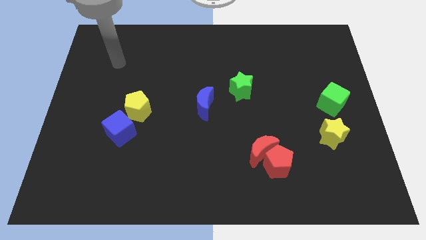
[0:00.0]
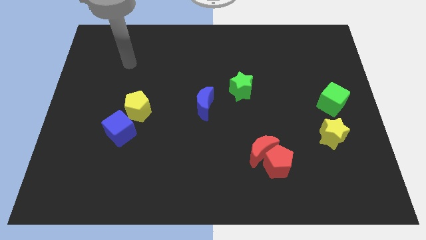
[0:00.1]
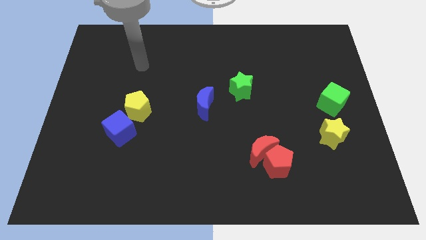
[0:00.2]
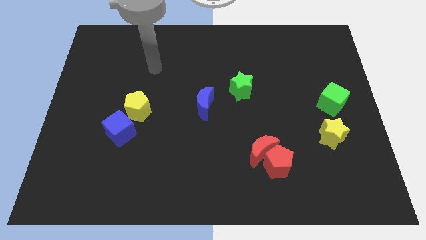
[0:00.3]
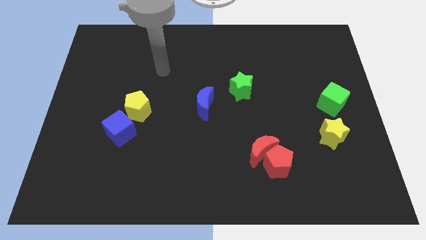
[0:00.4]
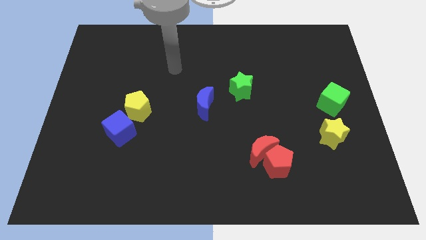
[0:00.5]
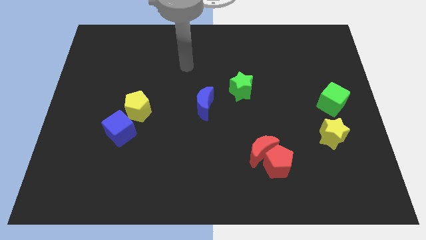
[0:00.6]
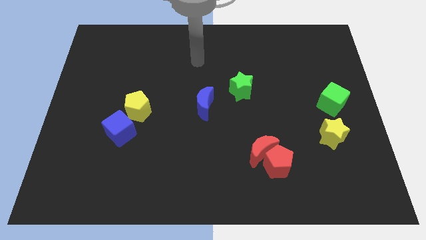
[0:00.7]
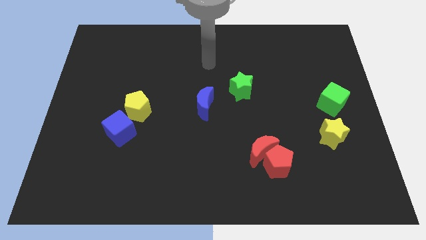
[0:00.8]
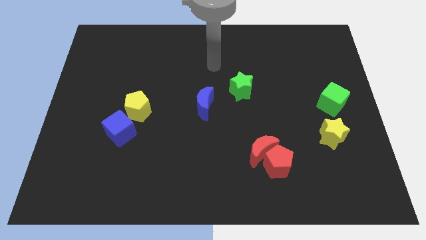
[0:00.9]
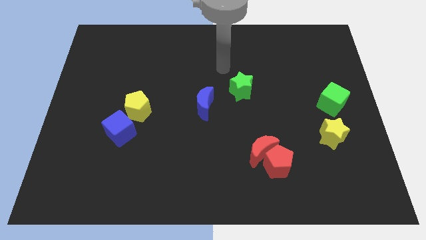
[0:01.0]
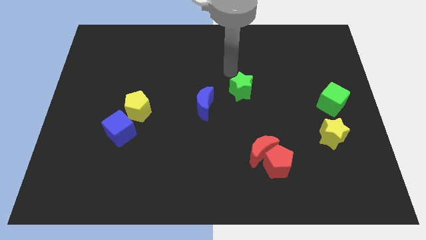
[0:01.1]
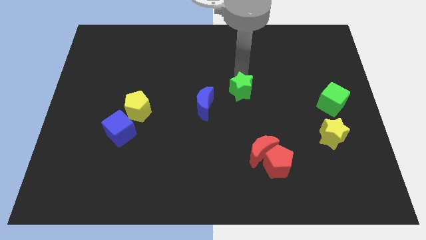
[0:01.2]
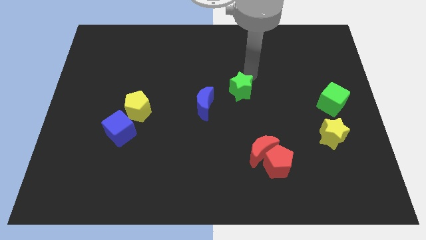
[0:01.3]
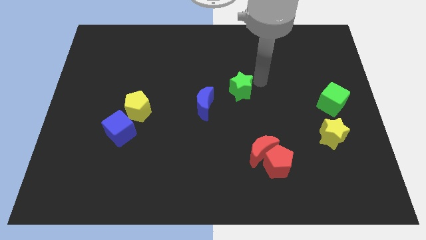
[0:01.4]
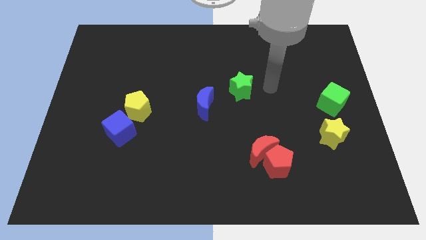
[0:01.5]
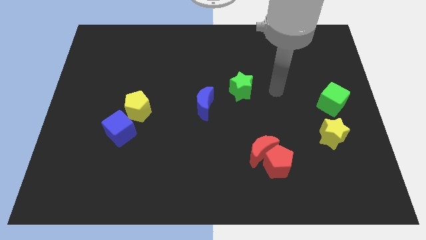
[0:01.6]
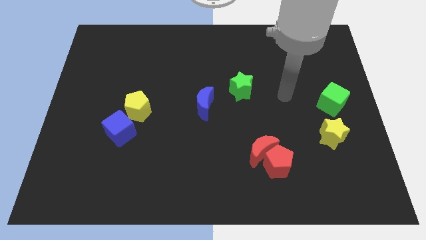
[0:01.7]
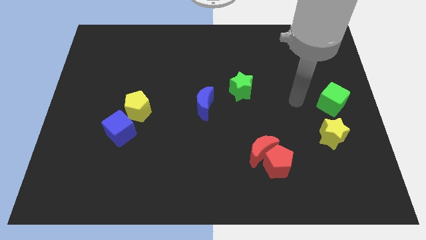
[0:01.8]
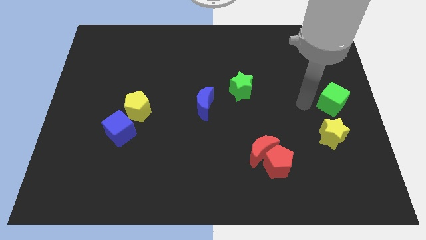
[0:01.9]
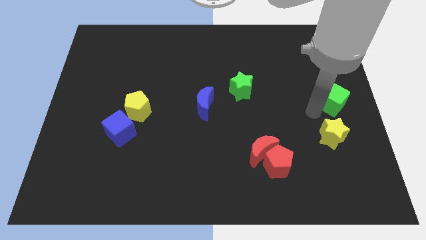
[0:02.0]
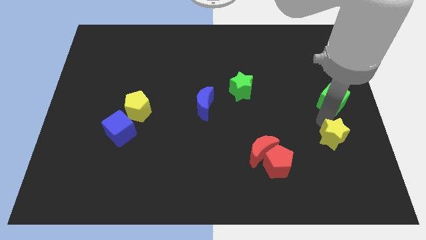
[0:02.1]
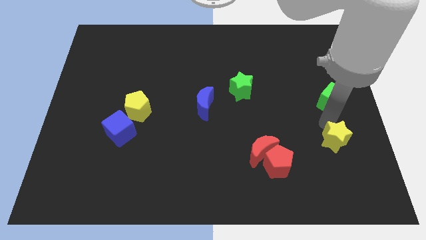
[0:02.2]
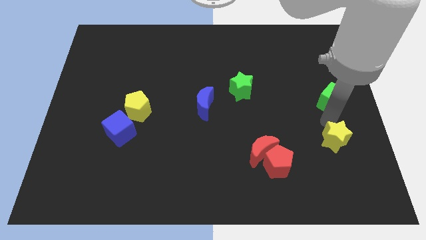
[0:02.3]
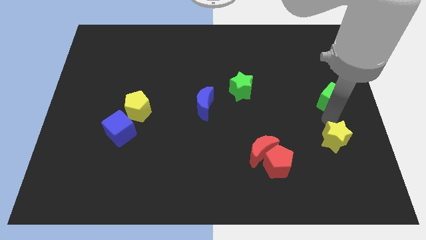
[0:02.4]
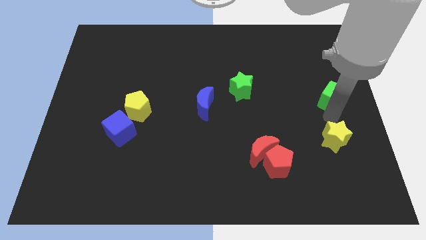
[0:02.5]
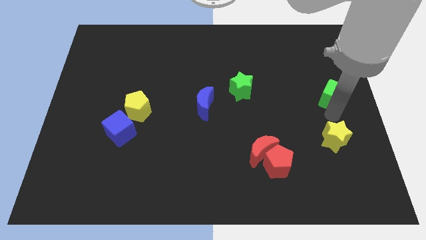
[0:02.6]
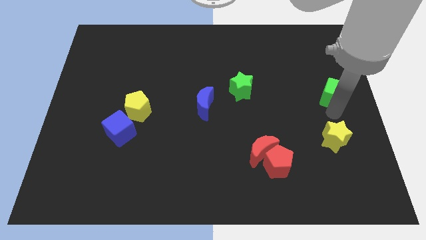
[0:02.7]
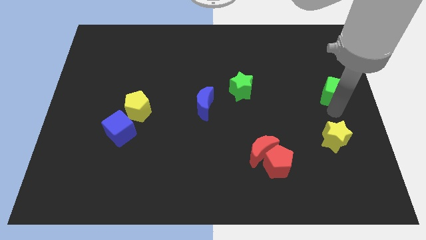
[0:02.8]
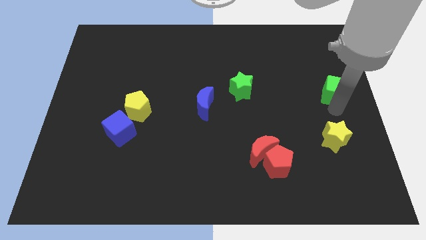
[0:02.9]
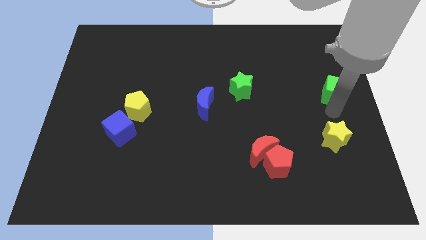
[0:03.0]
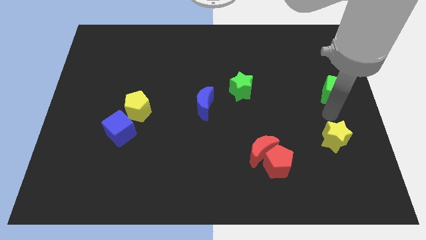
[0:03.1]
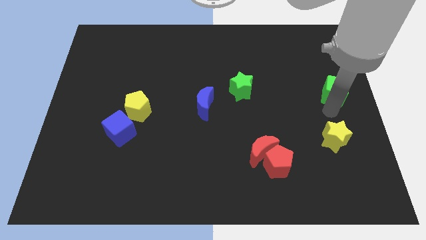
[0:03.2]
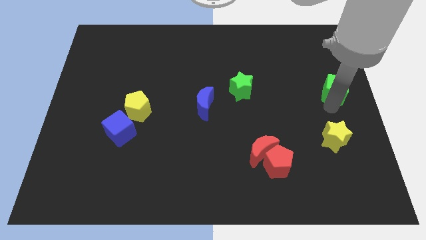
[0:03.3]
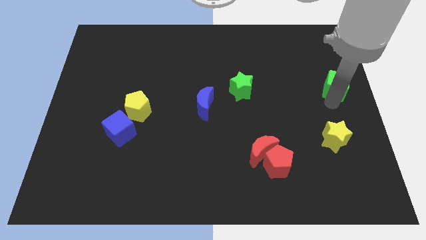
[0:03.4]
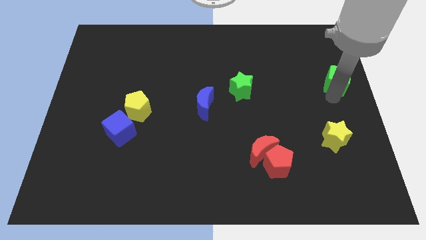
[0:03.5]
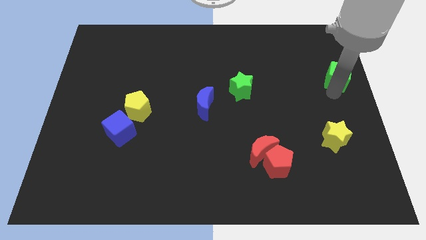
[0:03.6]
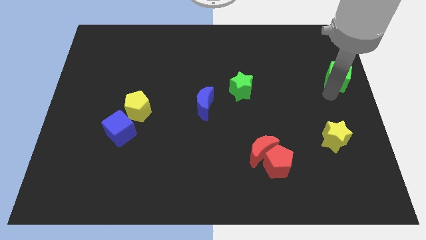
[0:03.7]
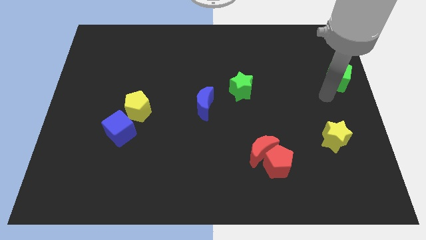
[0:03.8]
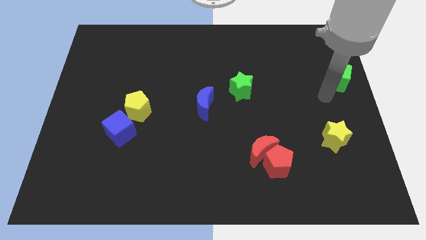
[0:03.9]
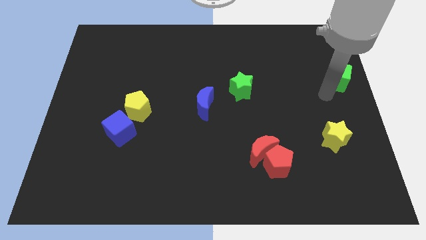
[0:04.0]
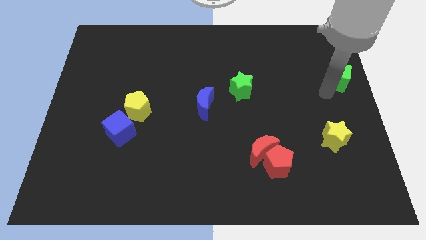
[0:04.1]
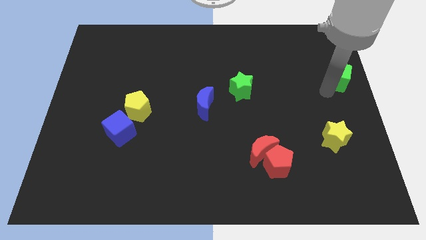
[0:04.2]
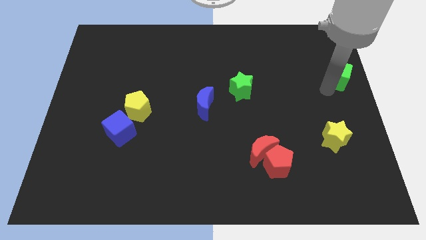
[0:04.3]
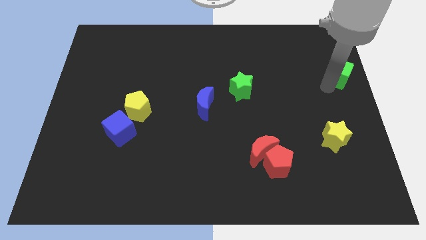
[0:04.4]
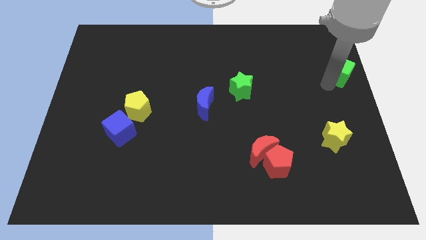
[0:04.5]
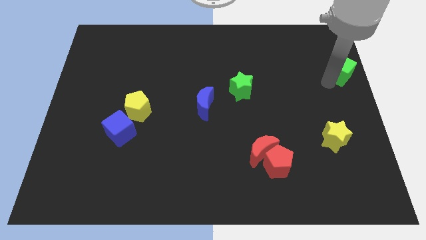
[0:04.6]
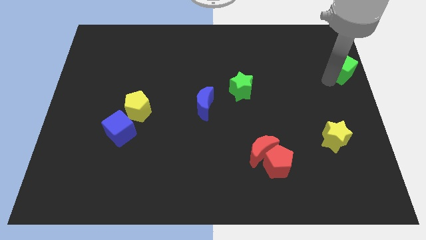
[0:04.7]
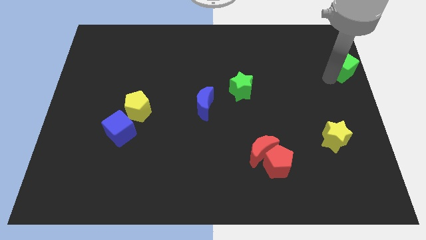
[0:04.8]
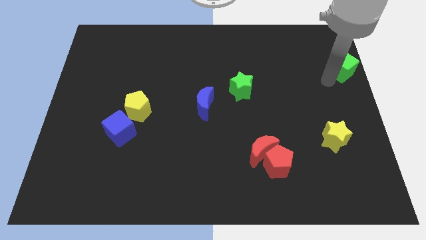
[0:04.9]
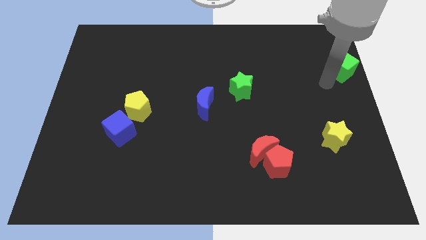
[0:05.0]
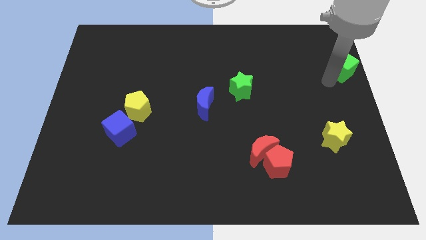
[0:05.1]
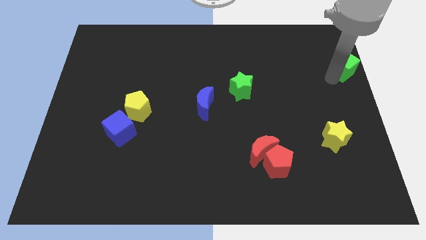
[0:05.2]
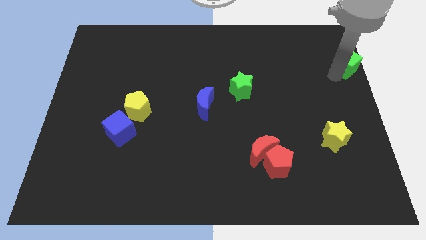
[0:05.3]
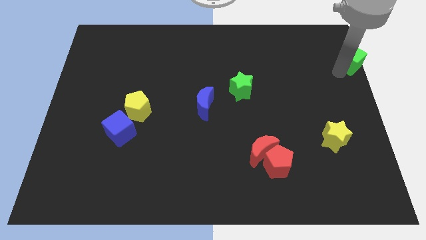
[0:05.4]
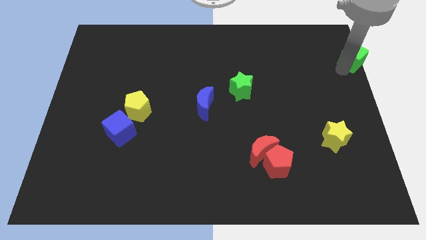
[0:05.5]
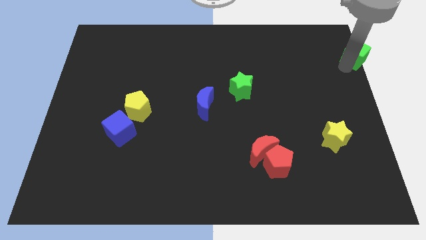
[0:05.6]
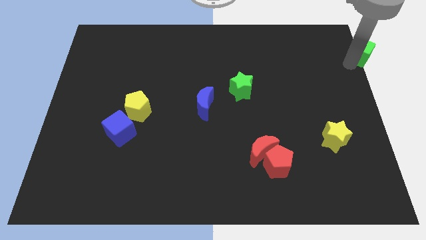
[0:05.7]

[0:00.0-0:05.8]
move the green cube to the top right of the board

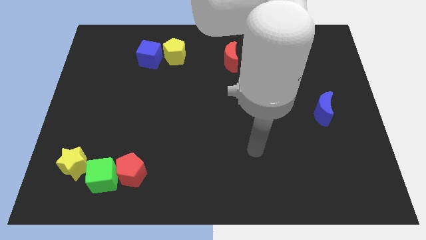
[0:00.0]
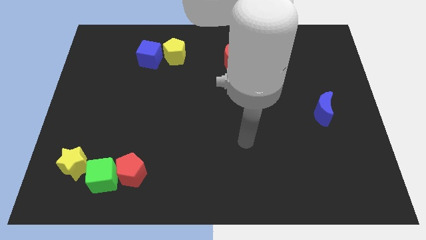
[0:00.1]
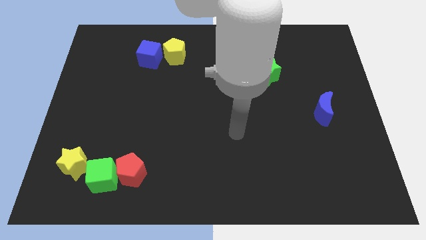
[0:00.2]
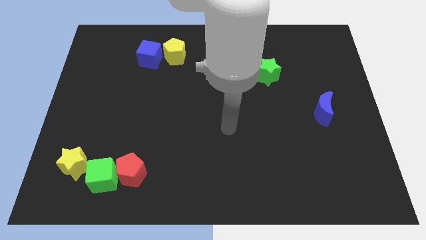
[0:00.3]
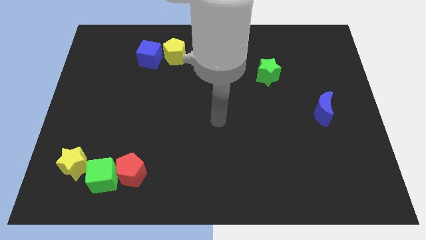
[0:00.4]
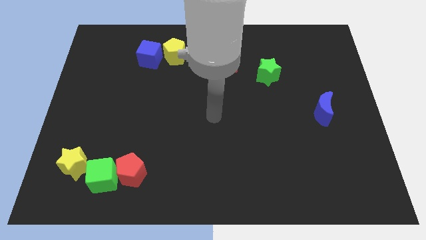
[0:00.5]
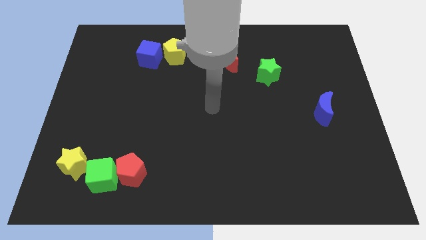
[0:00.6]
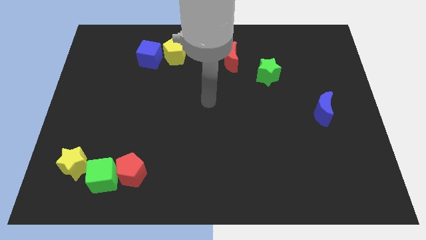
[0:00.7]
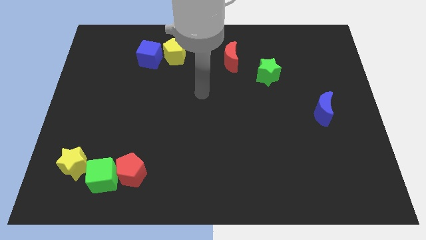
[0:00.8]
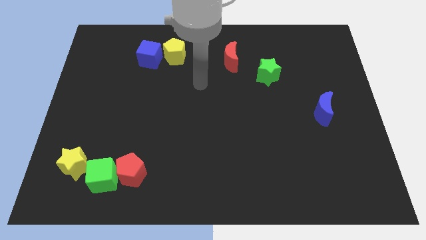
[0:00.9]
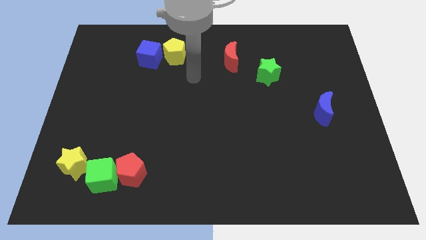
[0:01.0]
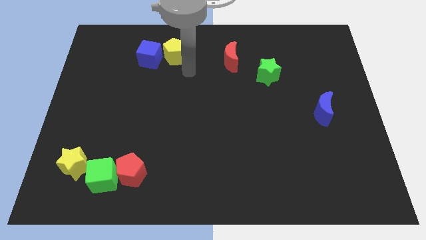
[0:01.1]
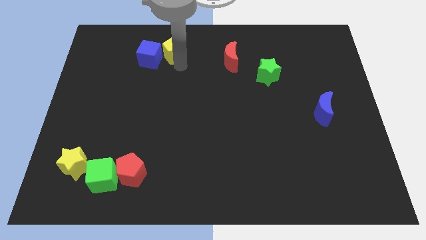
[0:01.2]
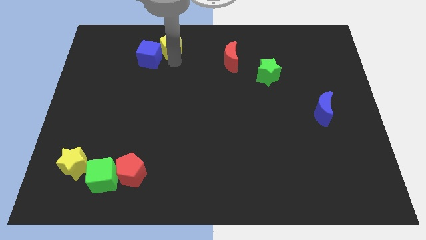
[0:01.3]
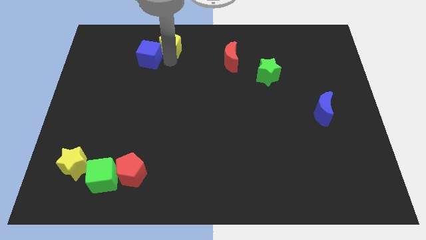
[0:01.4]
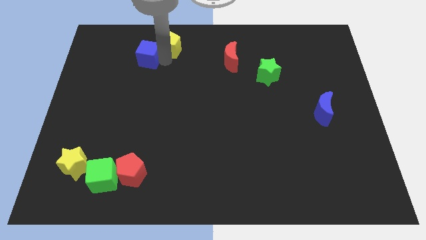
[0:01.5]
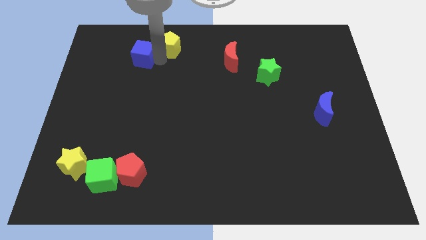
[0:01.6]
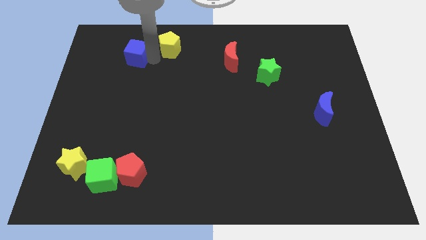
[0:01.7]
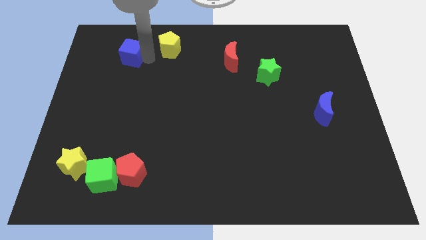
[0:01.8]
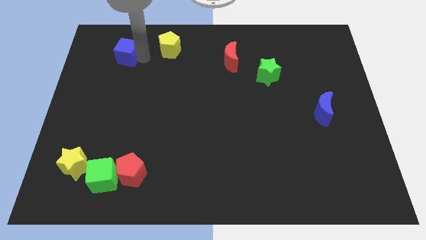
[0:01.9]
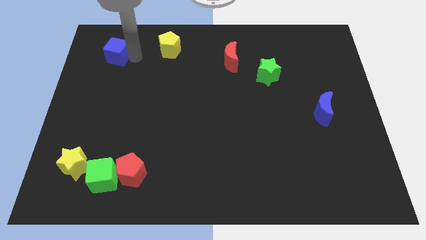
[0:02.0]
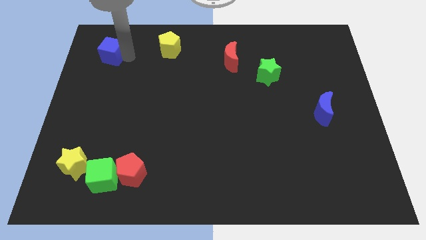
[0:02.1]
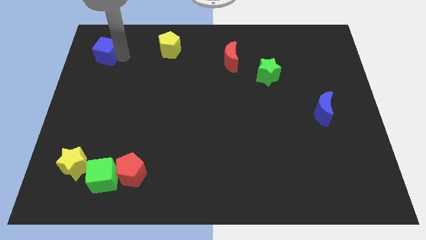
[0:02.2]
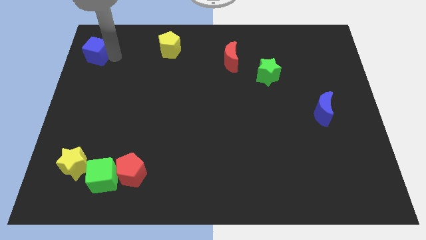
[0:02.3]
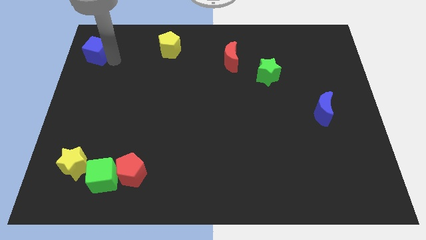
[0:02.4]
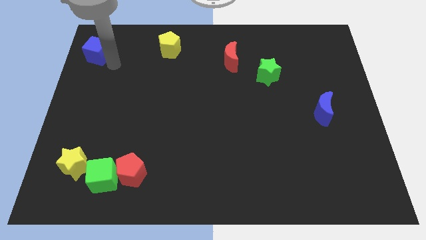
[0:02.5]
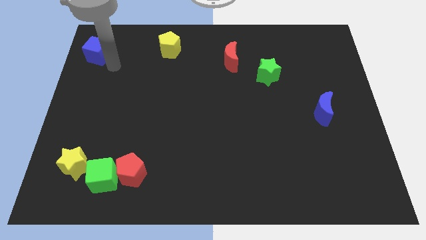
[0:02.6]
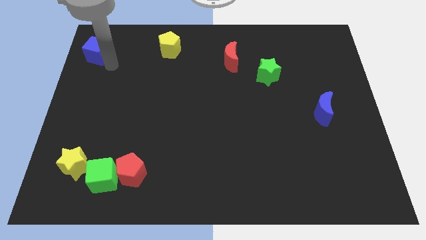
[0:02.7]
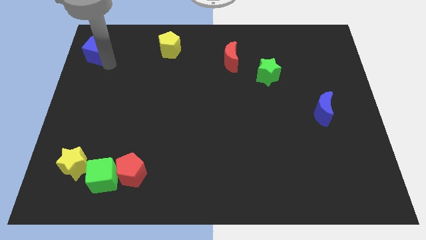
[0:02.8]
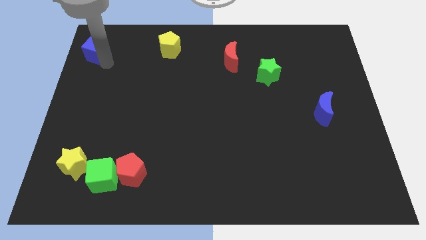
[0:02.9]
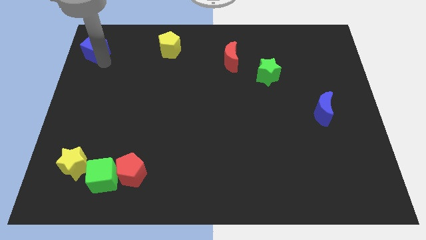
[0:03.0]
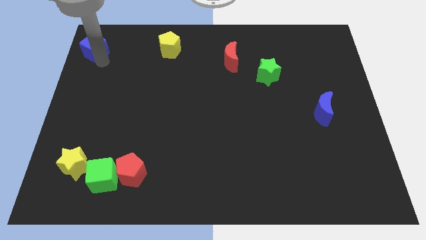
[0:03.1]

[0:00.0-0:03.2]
put the blue cube to the top left corner
